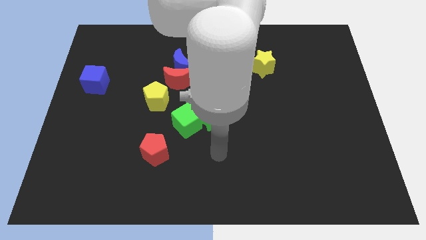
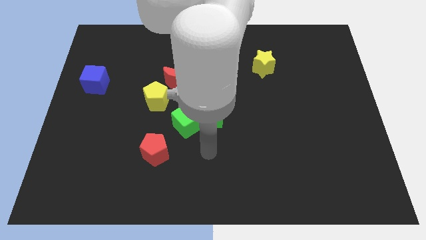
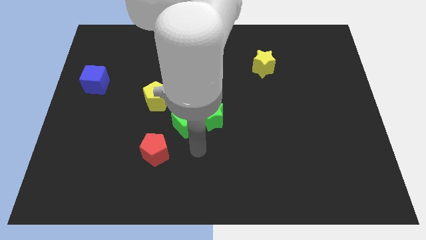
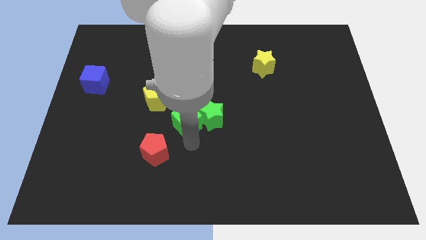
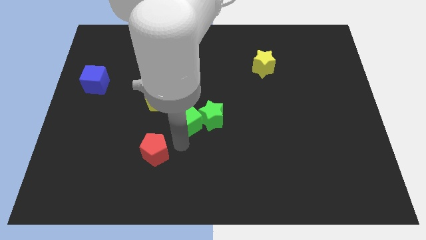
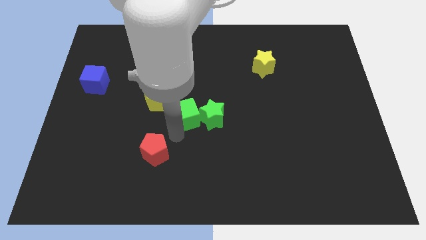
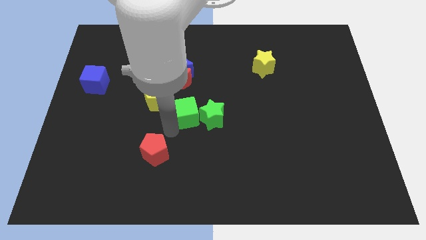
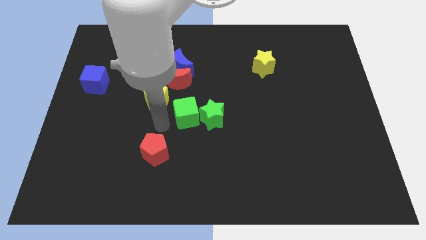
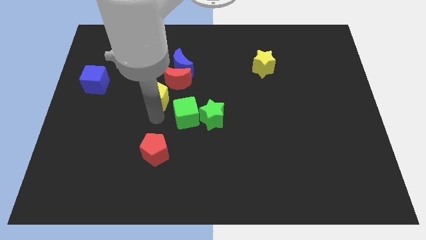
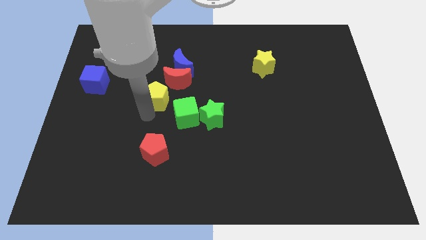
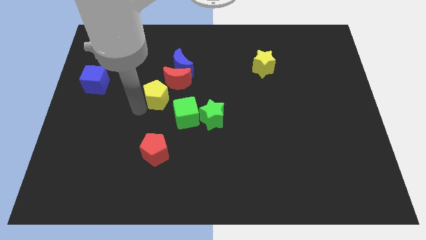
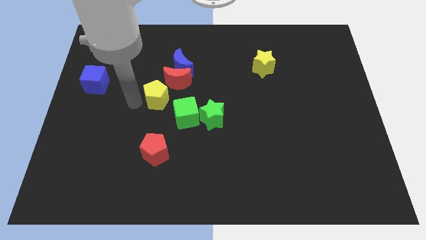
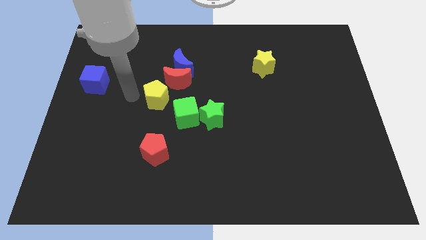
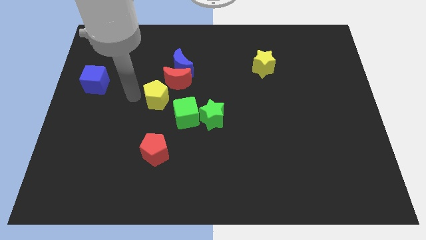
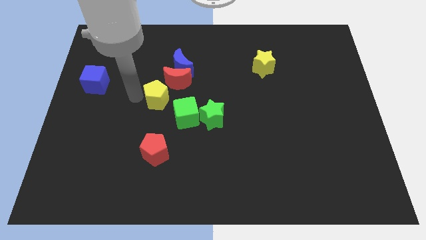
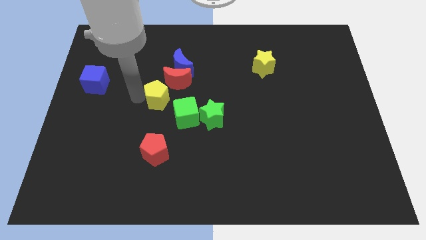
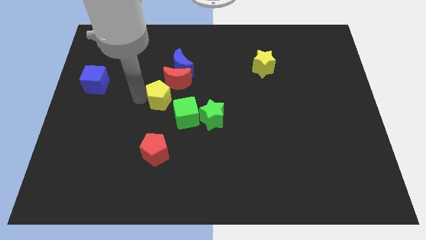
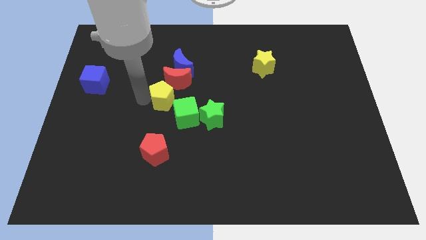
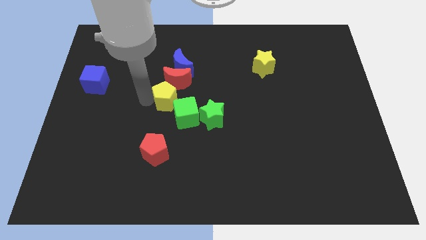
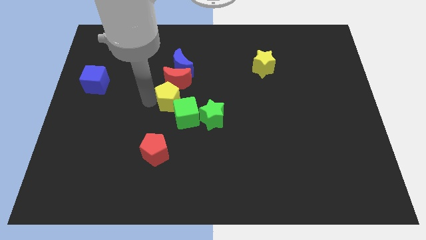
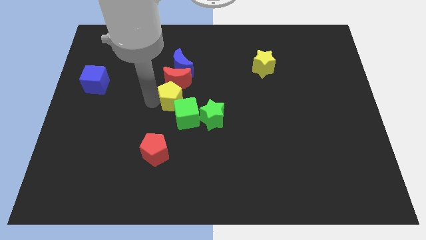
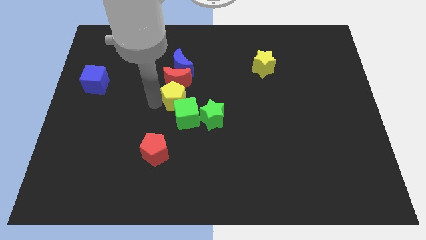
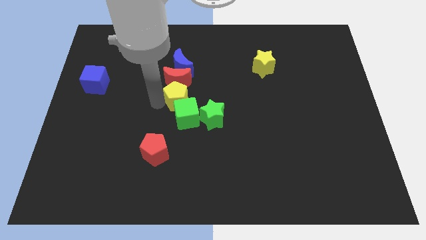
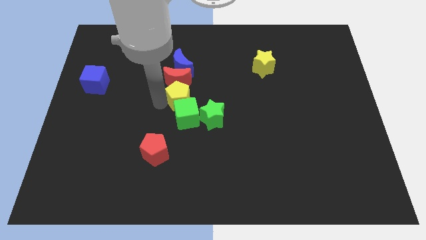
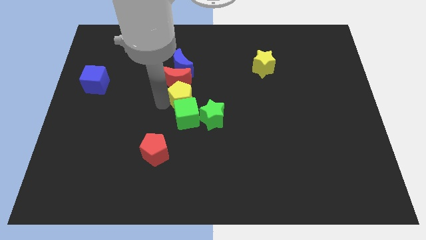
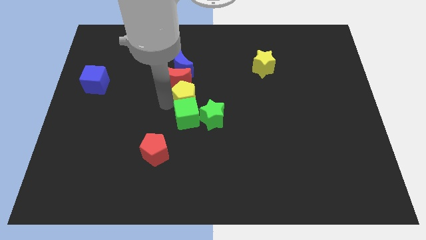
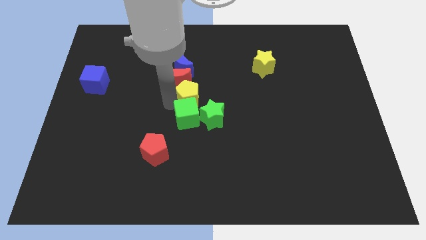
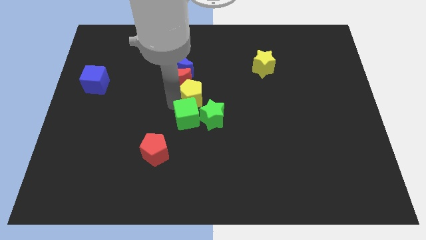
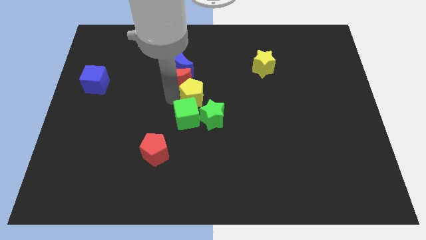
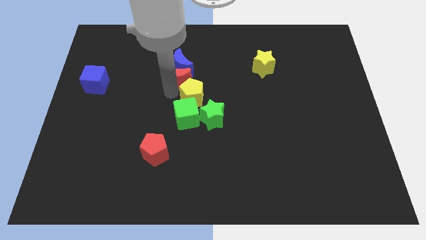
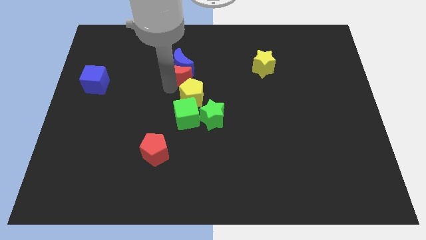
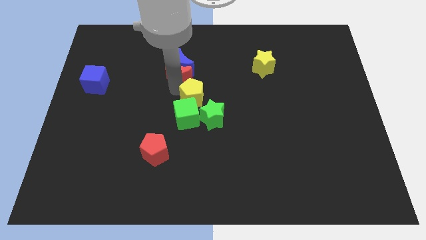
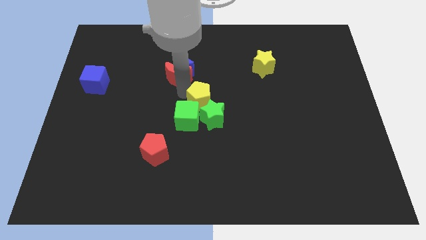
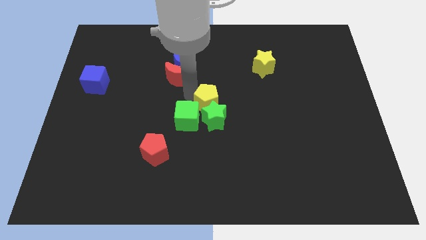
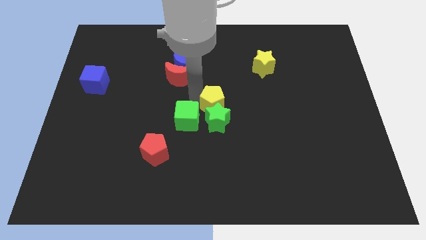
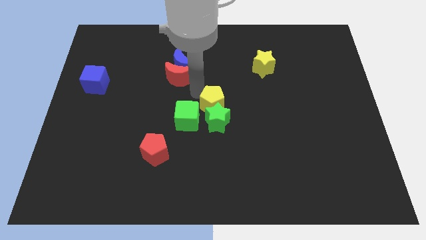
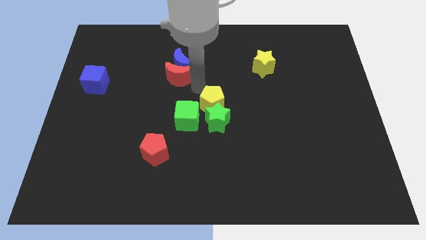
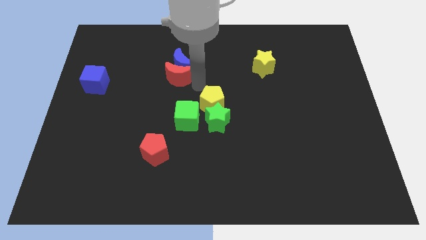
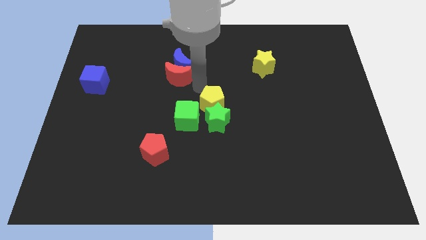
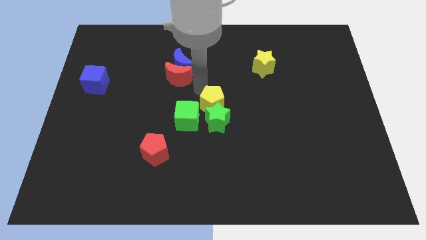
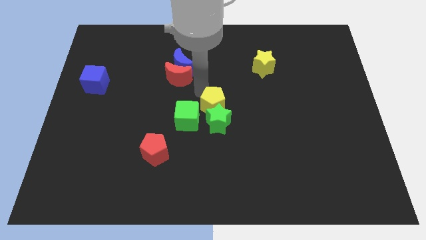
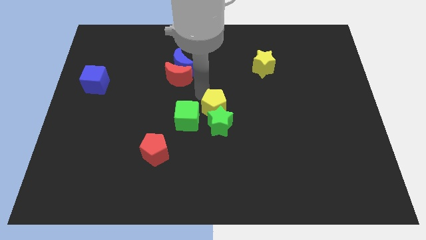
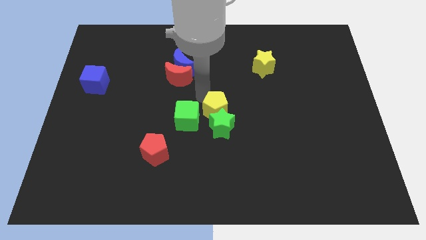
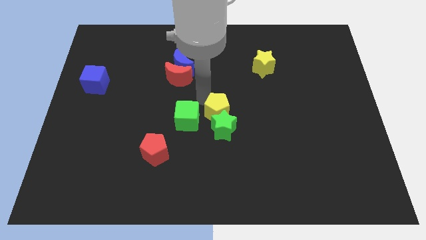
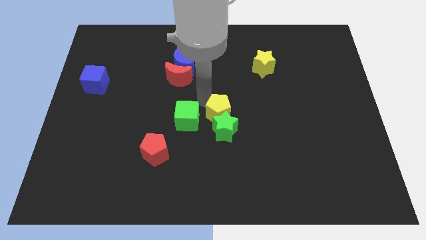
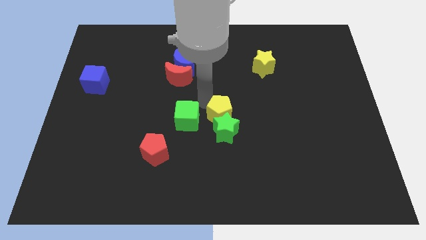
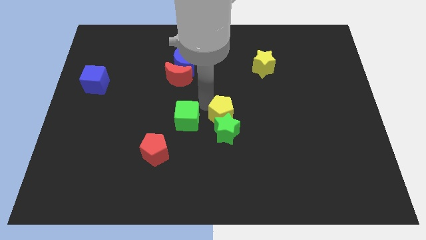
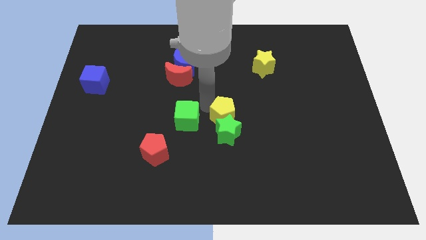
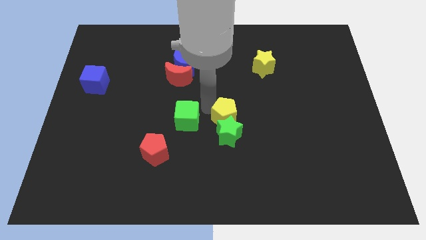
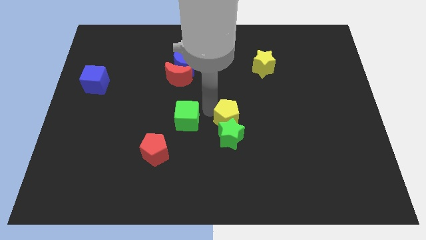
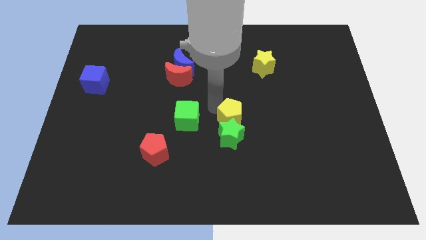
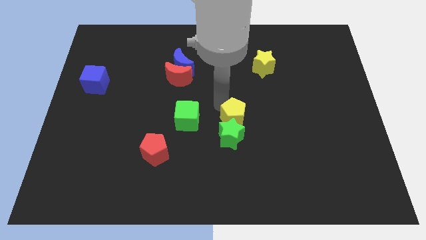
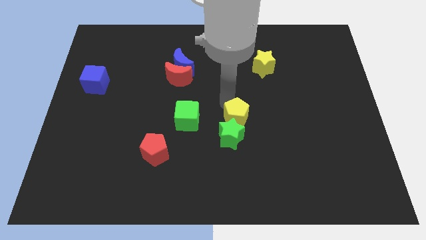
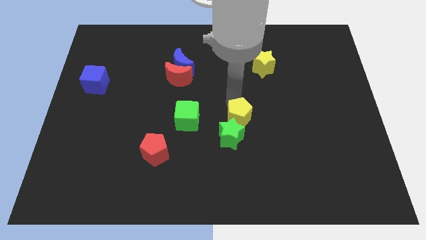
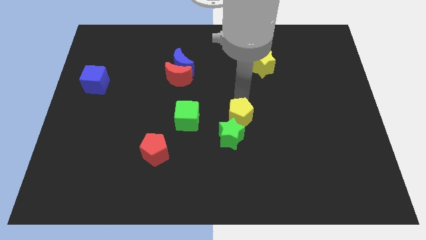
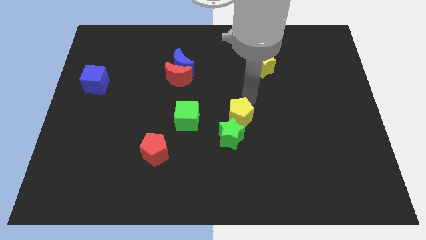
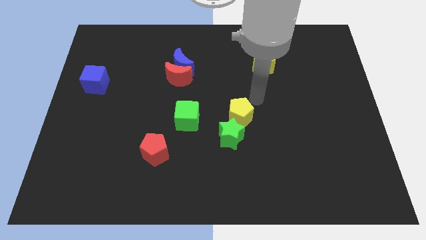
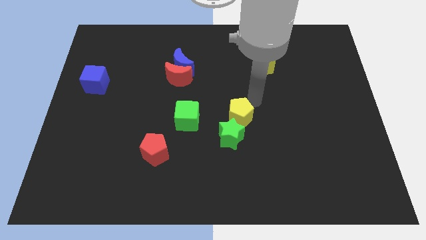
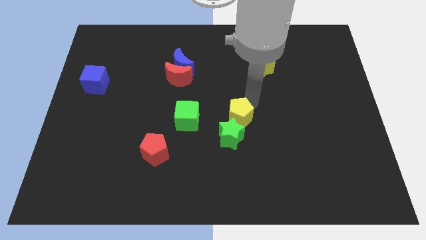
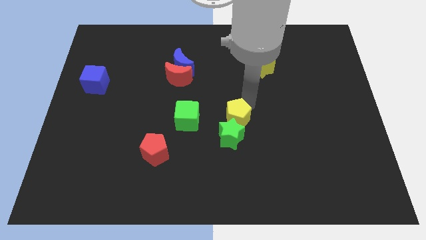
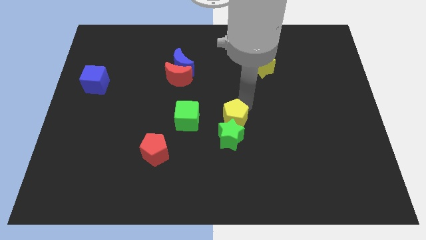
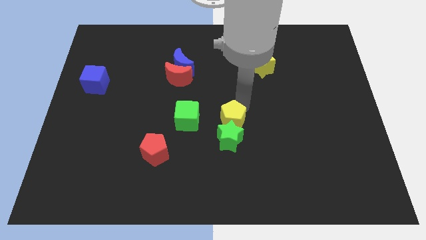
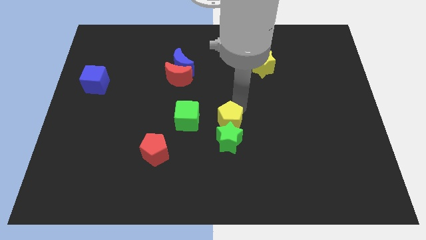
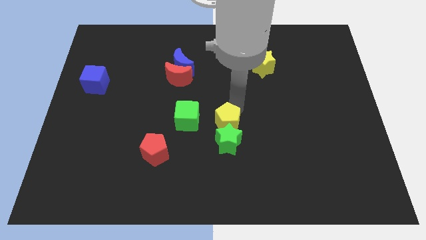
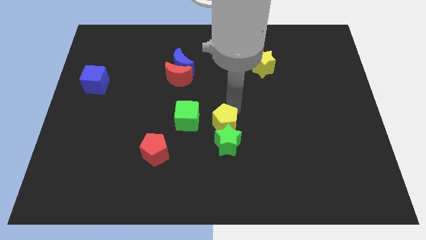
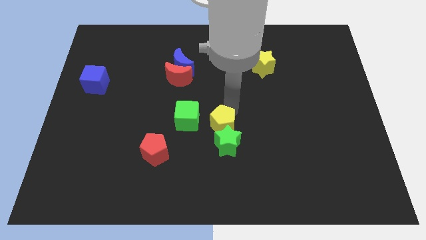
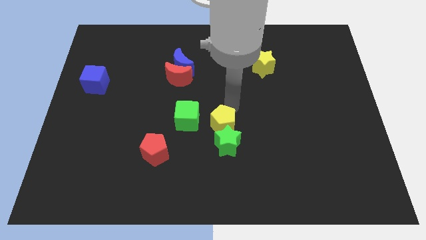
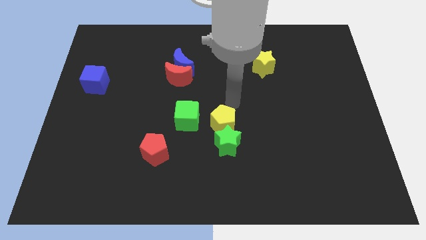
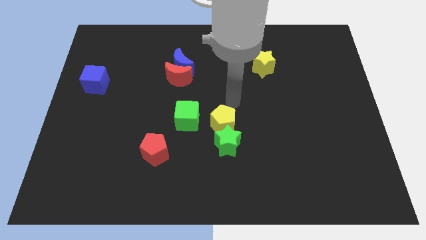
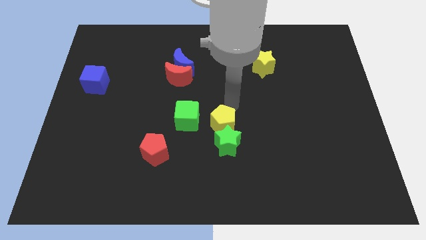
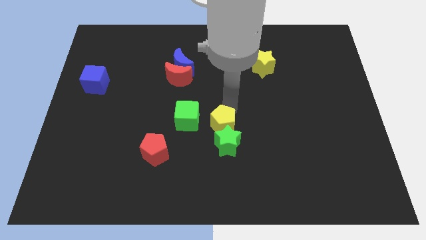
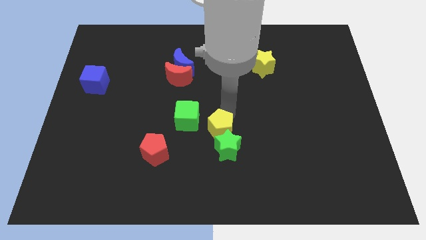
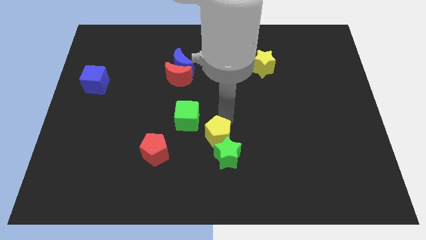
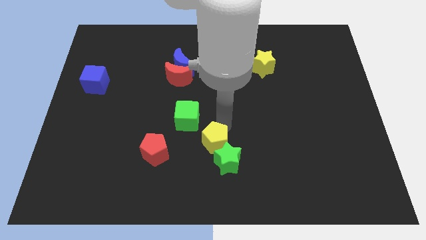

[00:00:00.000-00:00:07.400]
slide the yellow pentagon to the right of the red pentagon
